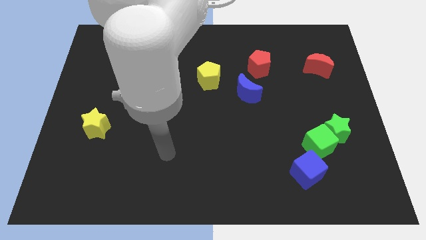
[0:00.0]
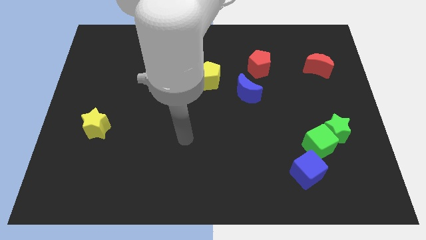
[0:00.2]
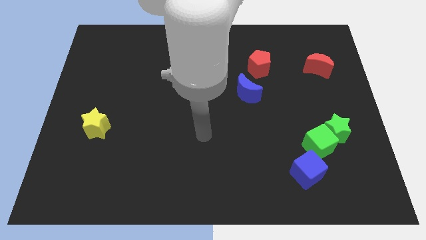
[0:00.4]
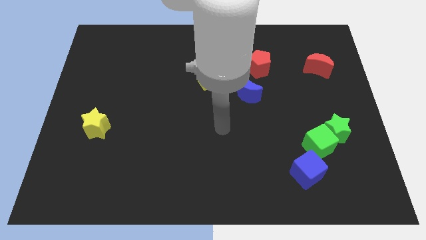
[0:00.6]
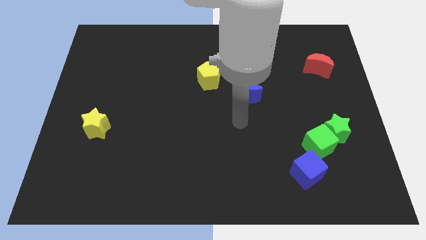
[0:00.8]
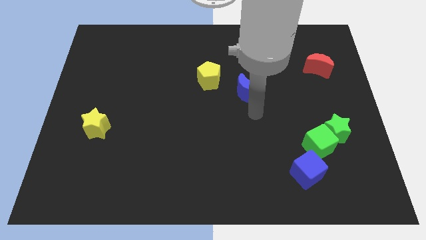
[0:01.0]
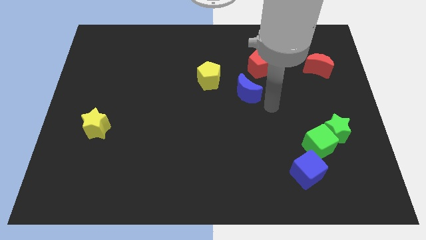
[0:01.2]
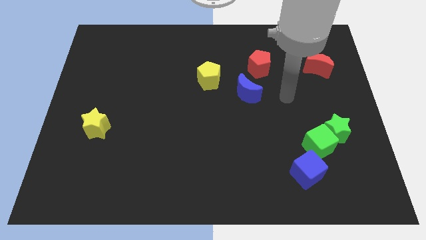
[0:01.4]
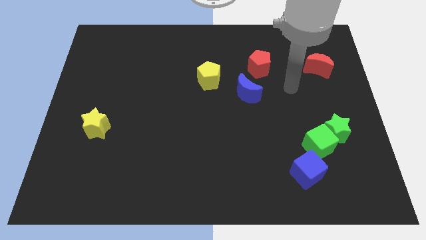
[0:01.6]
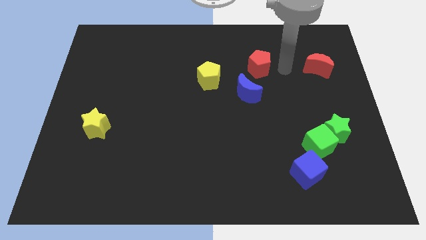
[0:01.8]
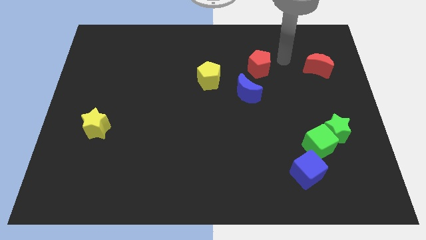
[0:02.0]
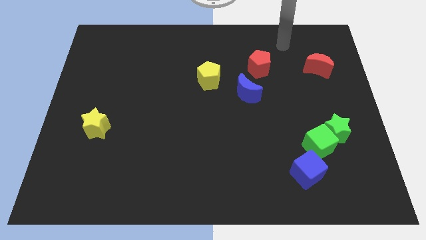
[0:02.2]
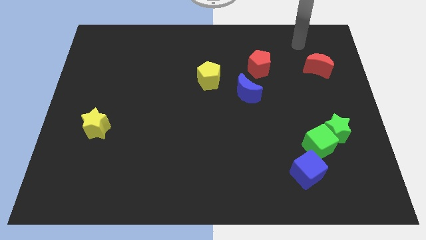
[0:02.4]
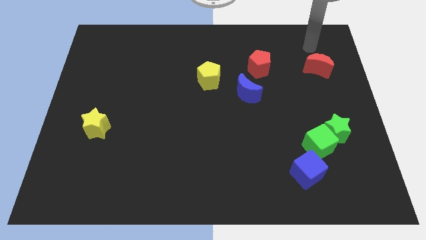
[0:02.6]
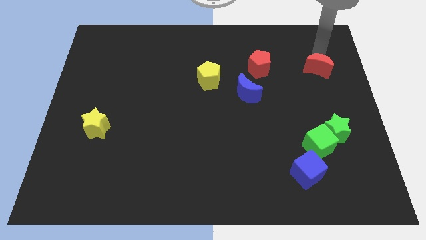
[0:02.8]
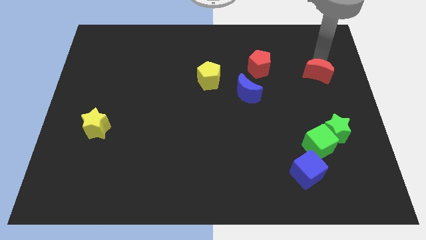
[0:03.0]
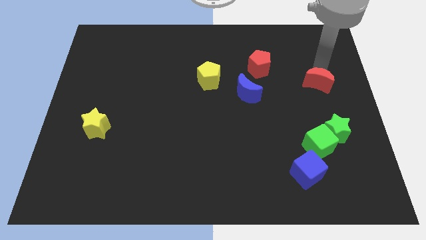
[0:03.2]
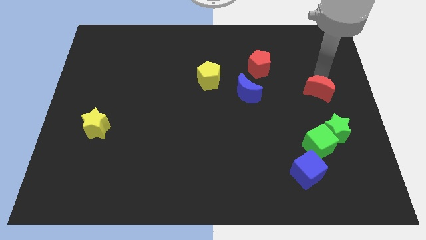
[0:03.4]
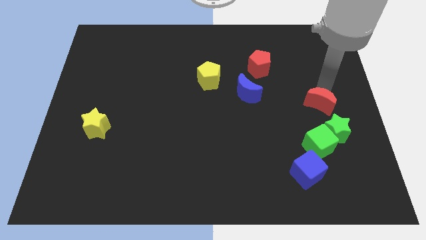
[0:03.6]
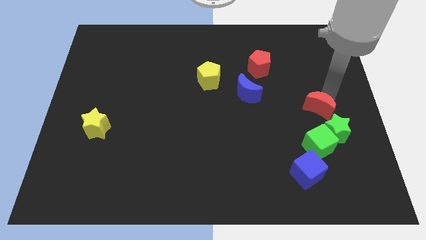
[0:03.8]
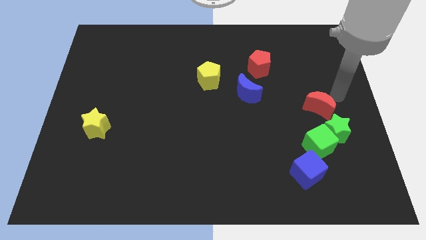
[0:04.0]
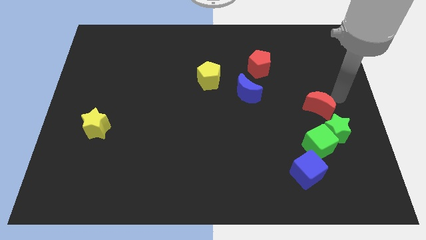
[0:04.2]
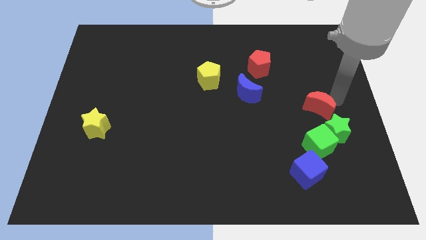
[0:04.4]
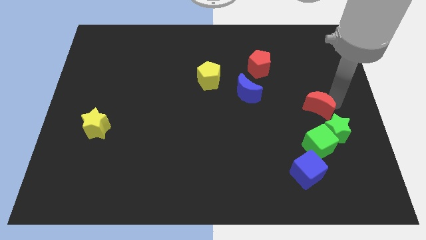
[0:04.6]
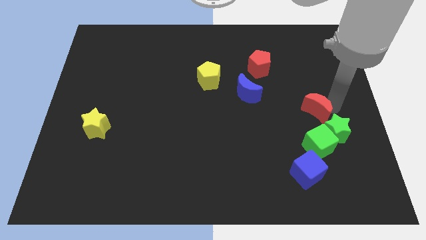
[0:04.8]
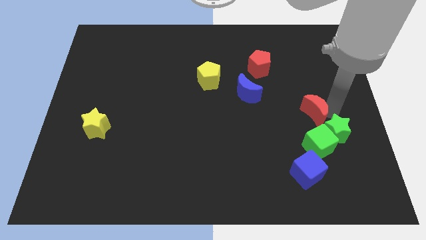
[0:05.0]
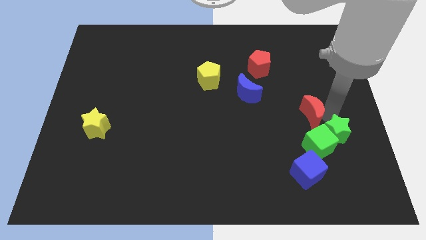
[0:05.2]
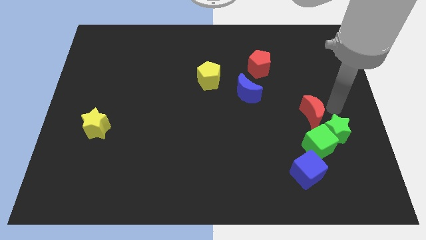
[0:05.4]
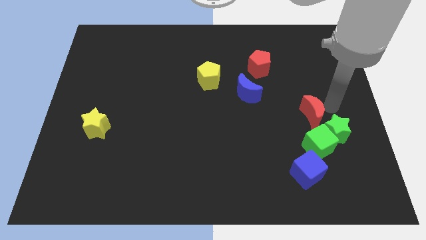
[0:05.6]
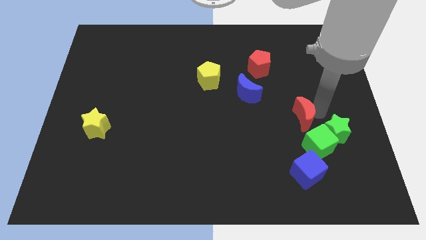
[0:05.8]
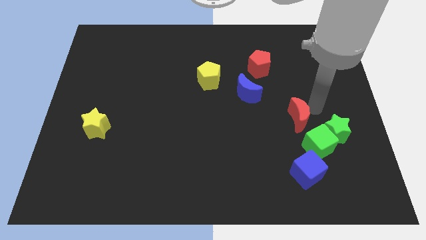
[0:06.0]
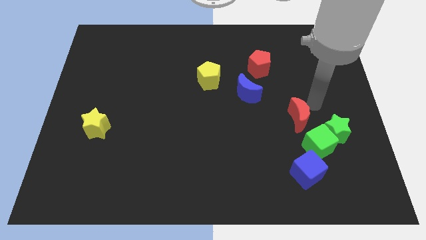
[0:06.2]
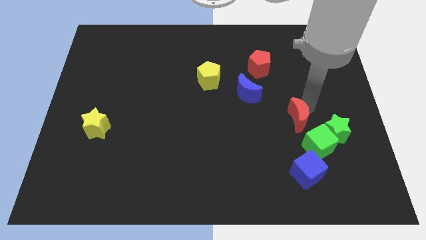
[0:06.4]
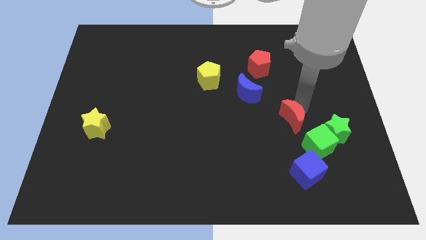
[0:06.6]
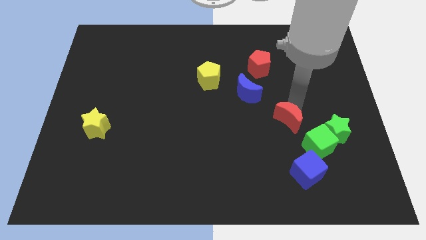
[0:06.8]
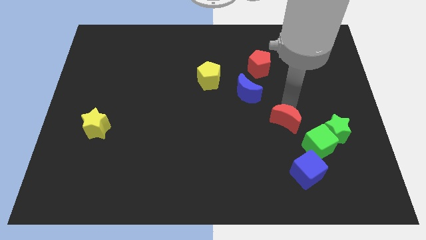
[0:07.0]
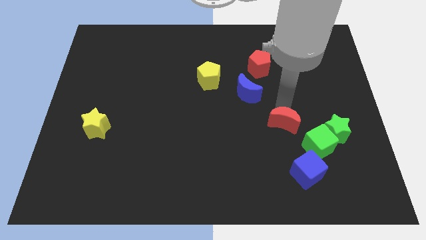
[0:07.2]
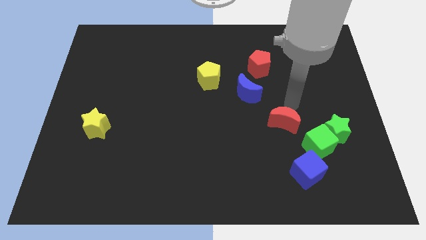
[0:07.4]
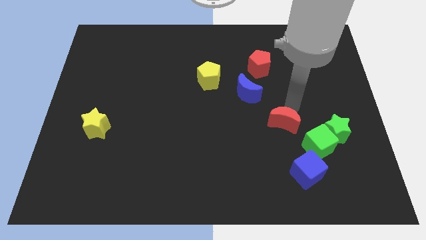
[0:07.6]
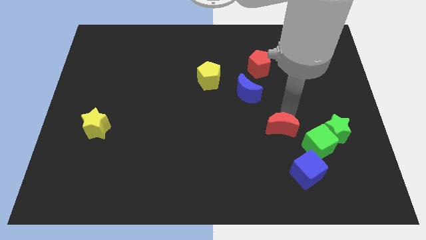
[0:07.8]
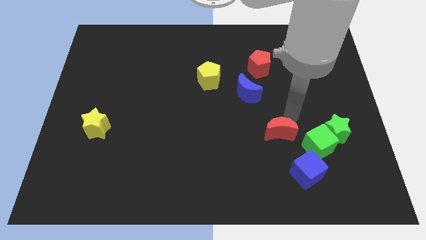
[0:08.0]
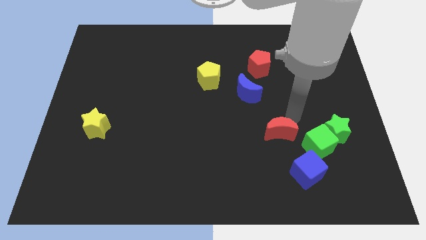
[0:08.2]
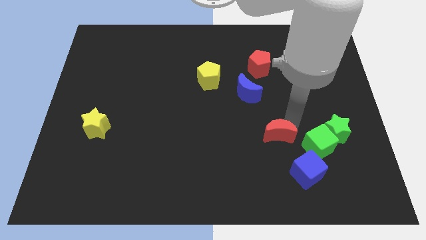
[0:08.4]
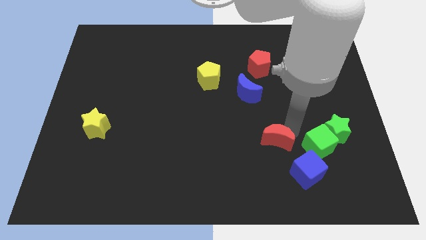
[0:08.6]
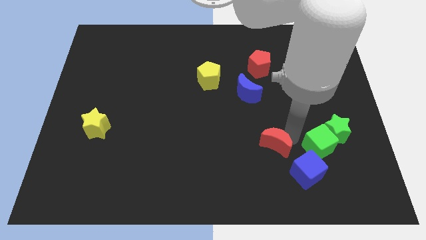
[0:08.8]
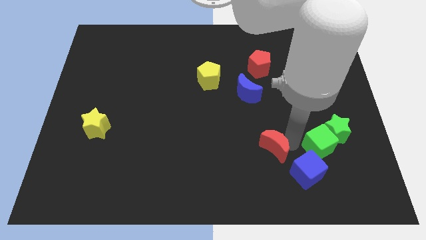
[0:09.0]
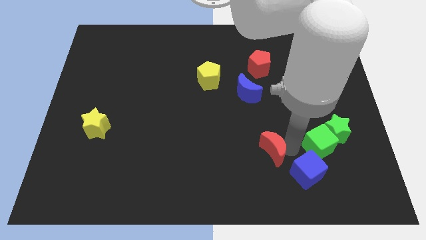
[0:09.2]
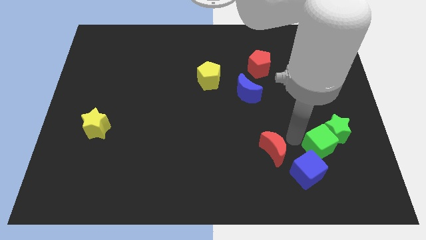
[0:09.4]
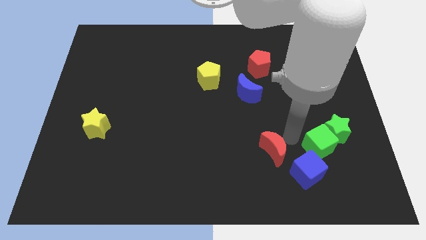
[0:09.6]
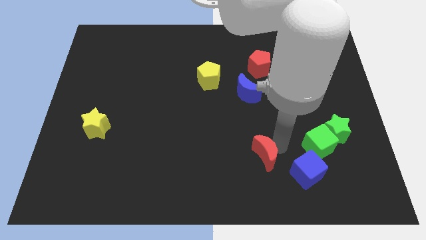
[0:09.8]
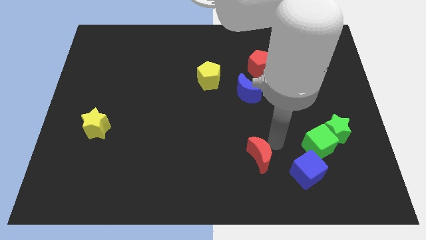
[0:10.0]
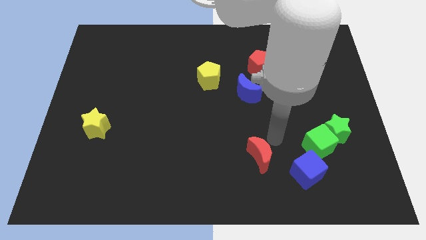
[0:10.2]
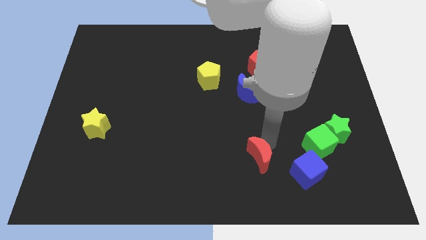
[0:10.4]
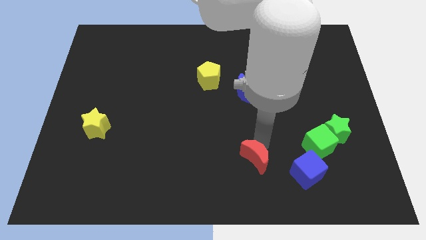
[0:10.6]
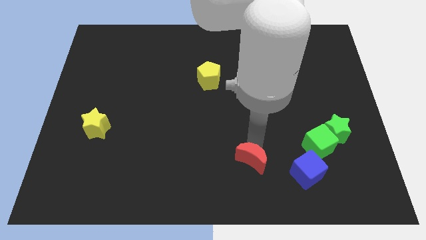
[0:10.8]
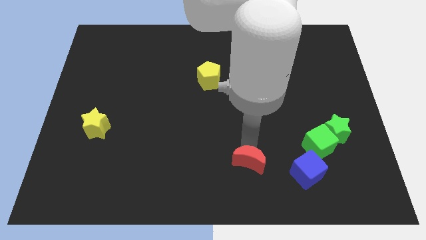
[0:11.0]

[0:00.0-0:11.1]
move the red moon to the bottom
